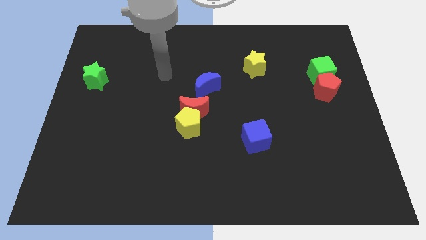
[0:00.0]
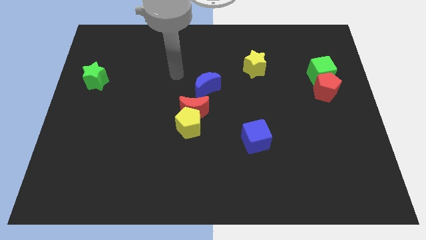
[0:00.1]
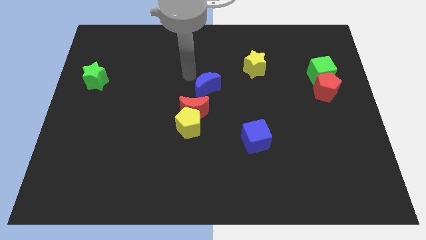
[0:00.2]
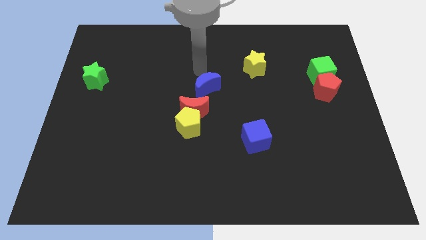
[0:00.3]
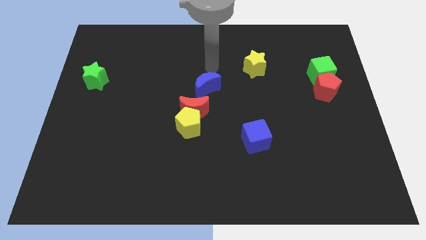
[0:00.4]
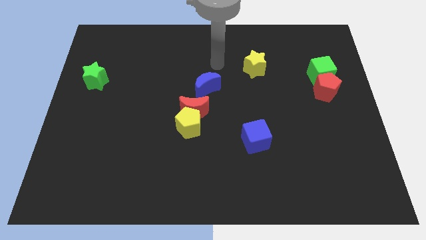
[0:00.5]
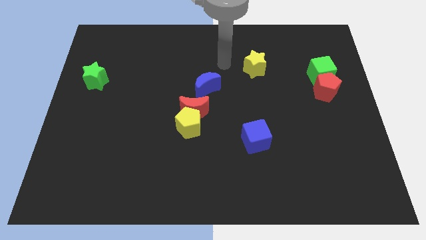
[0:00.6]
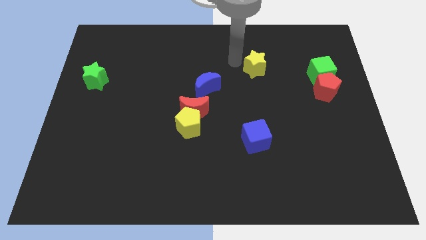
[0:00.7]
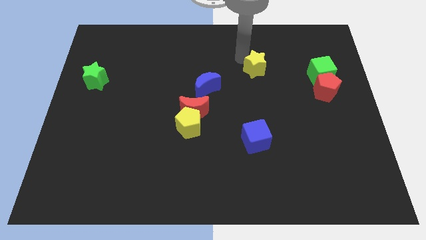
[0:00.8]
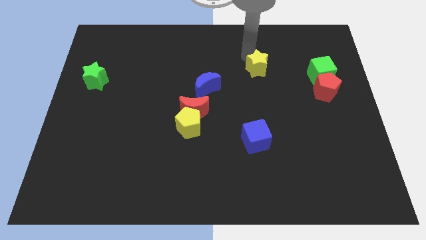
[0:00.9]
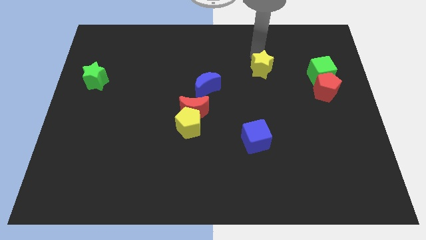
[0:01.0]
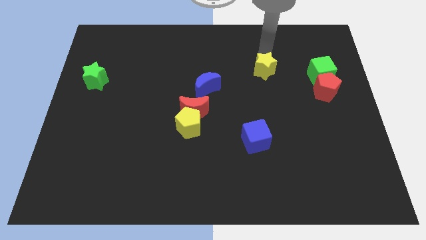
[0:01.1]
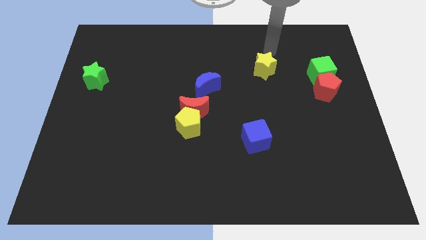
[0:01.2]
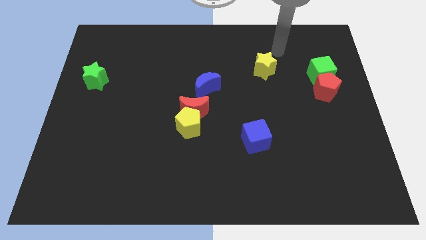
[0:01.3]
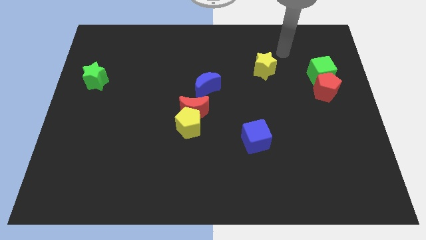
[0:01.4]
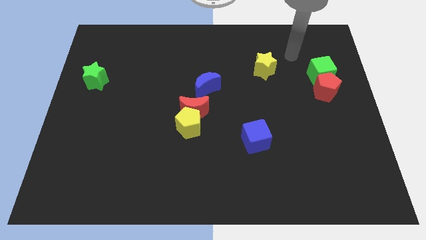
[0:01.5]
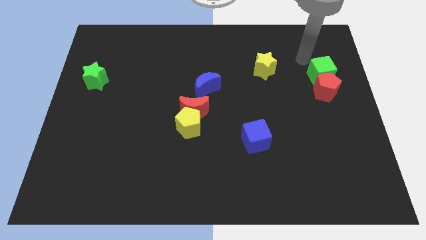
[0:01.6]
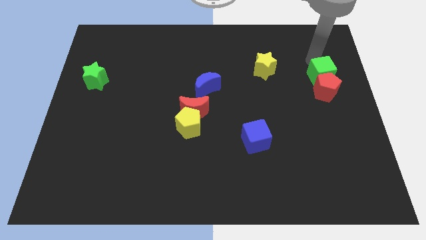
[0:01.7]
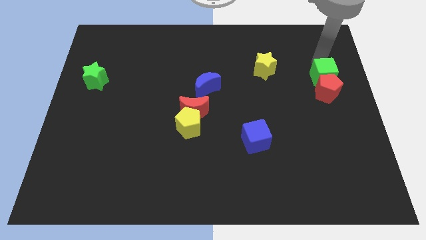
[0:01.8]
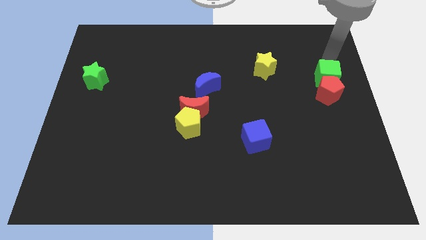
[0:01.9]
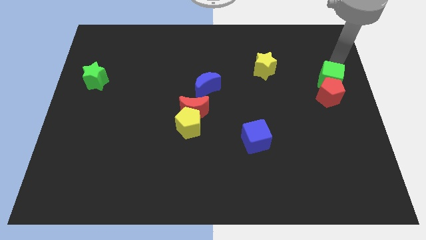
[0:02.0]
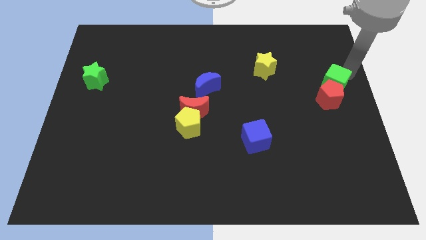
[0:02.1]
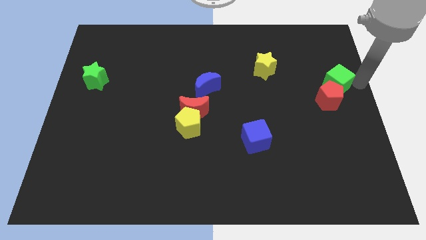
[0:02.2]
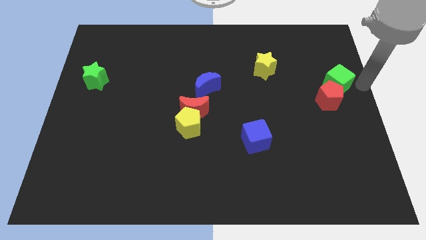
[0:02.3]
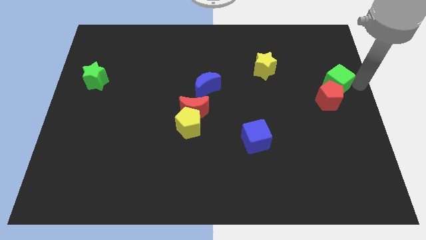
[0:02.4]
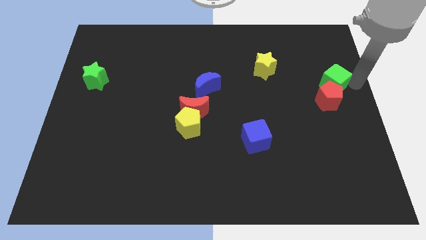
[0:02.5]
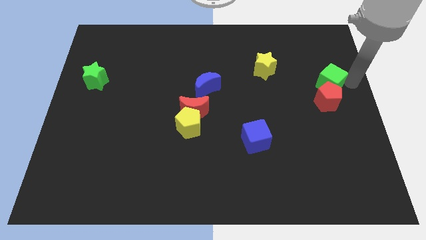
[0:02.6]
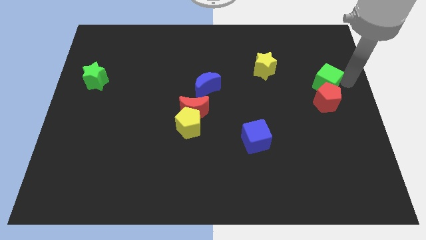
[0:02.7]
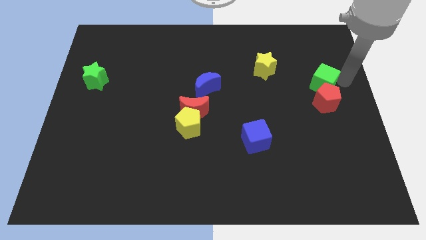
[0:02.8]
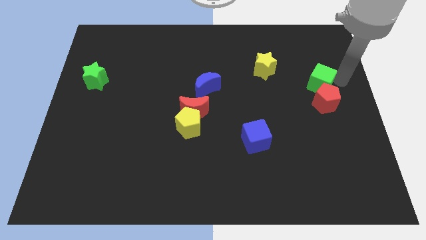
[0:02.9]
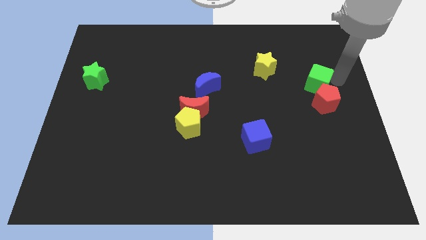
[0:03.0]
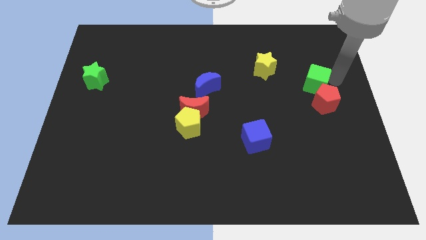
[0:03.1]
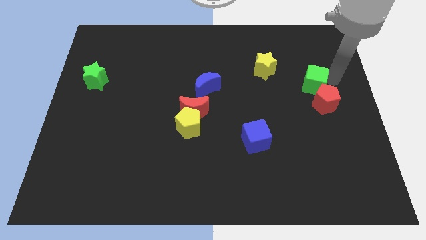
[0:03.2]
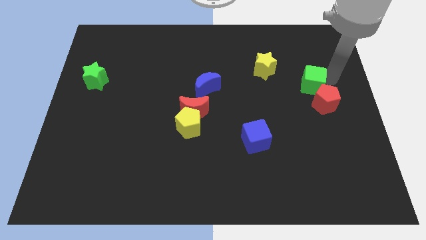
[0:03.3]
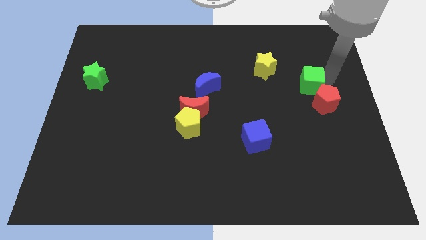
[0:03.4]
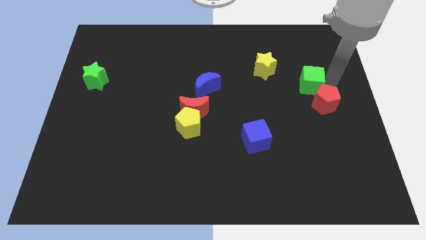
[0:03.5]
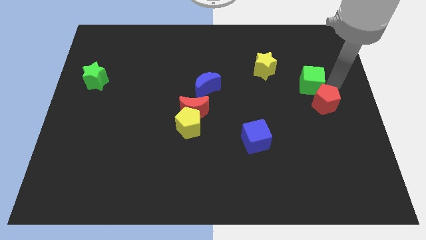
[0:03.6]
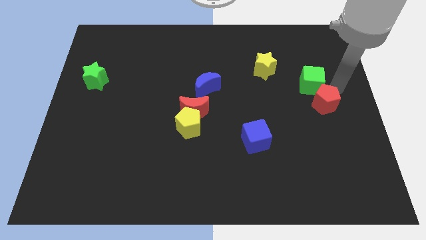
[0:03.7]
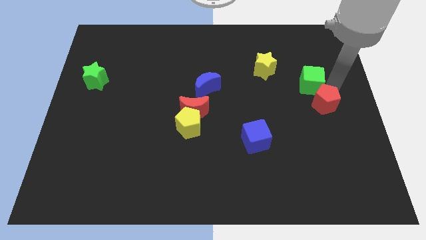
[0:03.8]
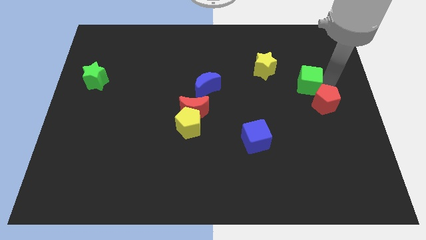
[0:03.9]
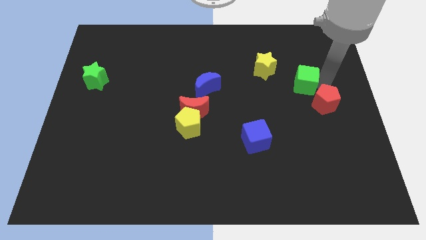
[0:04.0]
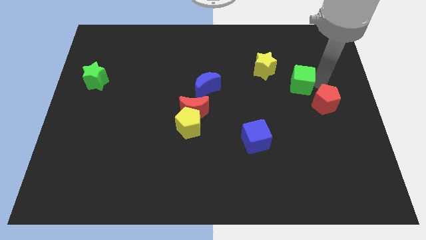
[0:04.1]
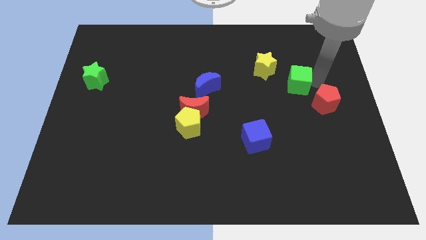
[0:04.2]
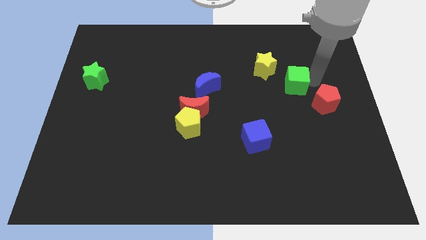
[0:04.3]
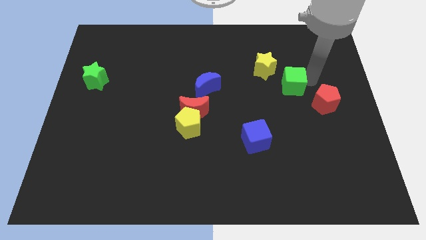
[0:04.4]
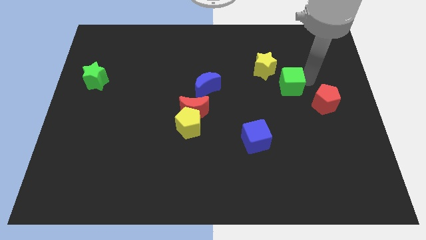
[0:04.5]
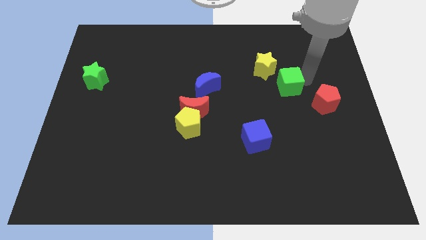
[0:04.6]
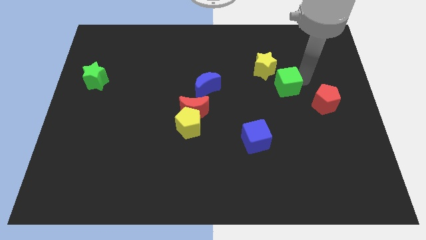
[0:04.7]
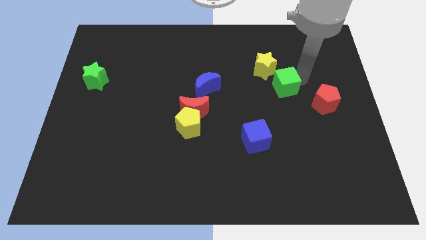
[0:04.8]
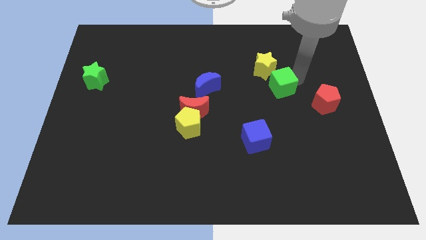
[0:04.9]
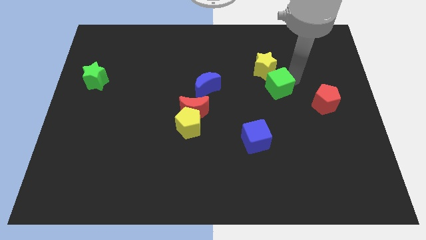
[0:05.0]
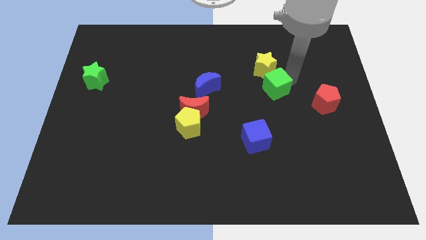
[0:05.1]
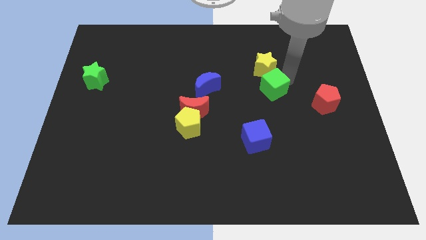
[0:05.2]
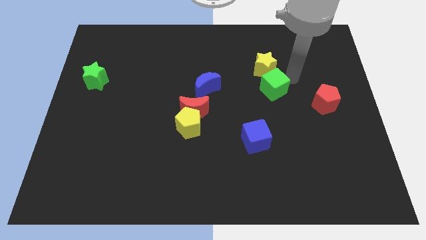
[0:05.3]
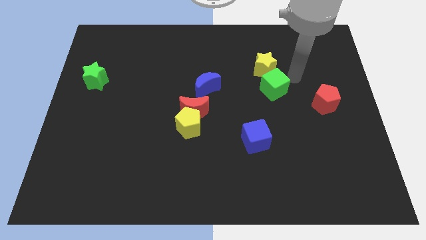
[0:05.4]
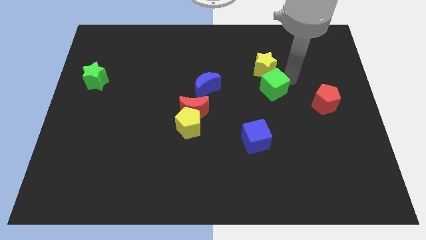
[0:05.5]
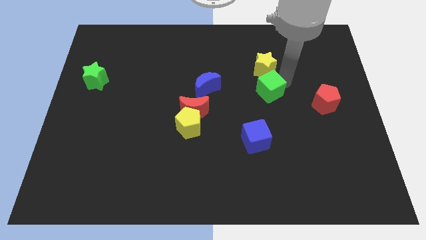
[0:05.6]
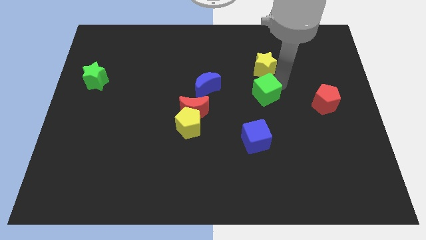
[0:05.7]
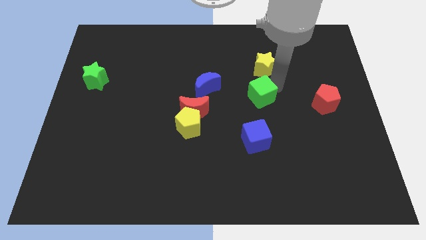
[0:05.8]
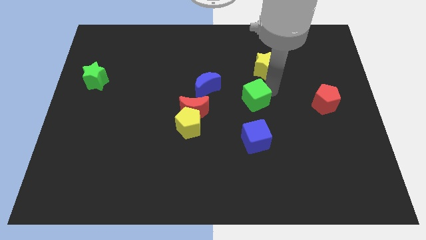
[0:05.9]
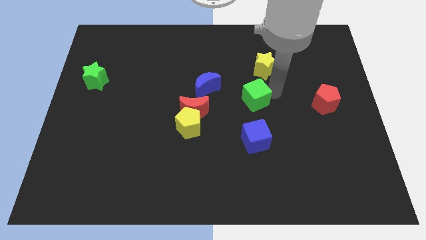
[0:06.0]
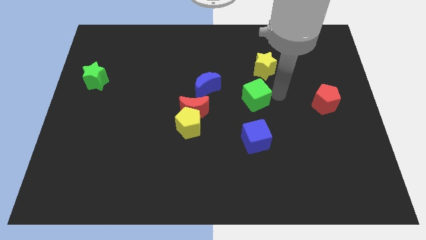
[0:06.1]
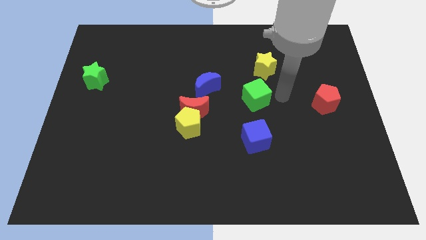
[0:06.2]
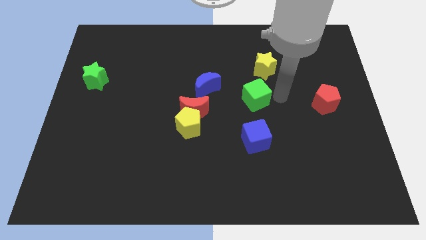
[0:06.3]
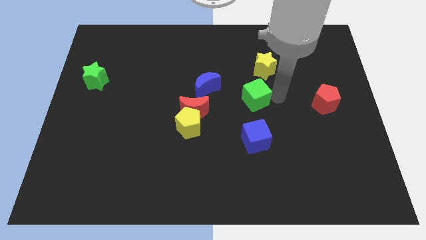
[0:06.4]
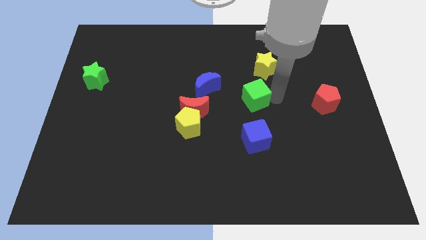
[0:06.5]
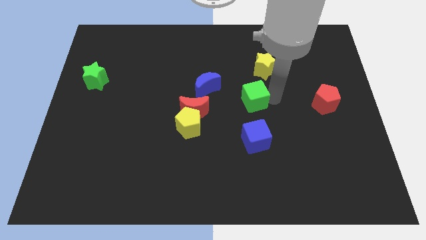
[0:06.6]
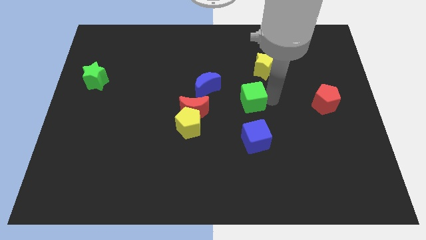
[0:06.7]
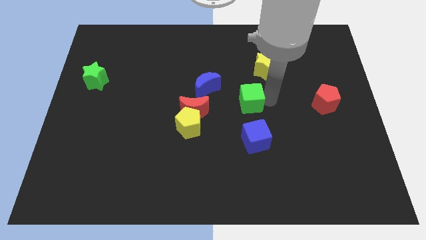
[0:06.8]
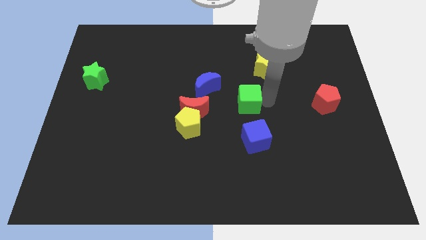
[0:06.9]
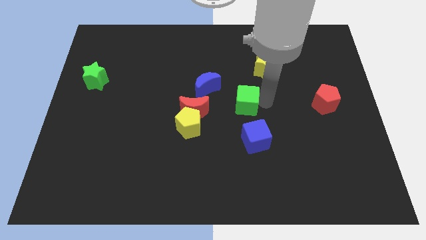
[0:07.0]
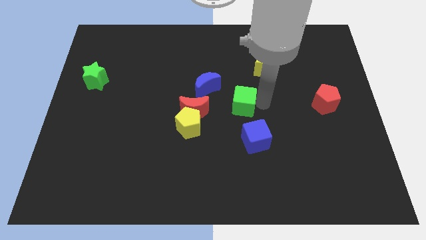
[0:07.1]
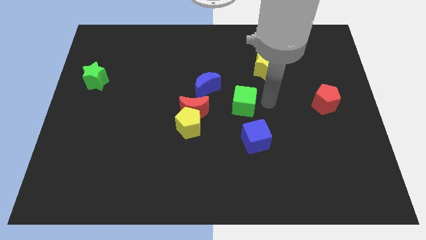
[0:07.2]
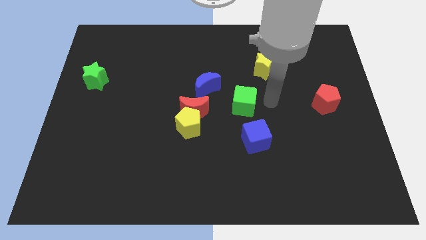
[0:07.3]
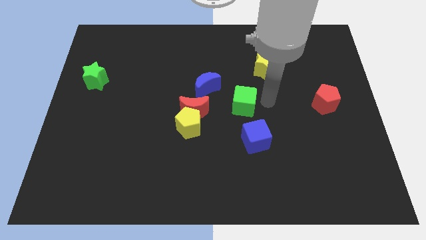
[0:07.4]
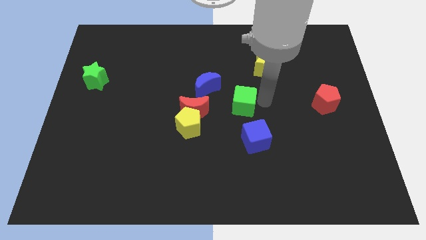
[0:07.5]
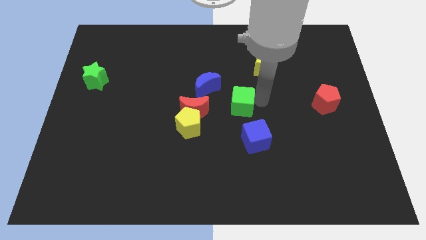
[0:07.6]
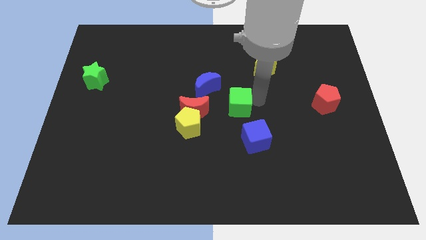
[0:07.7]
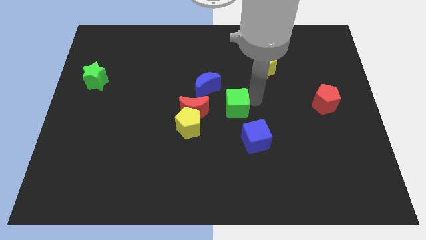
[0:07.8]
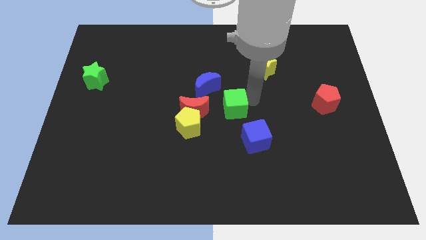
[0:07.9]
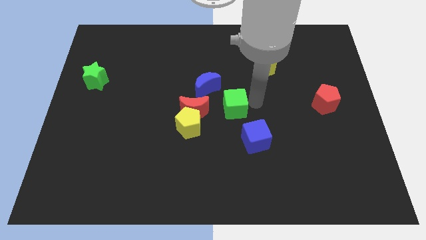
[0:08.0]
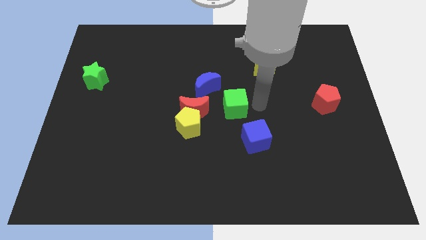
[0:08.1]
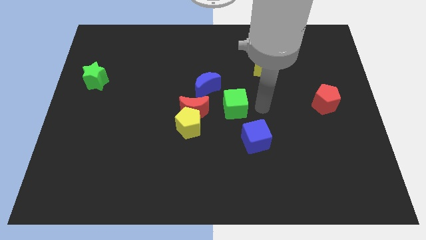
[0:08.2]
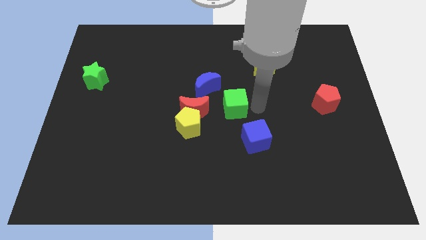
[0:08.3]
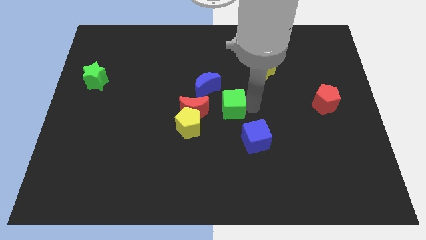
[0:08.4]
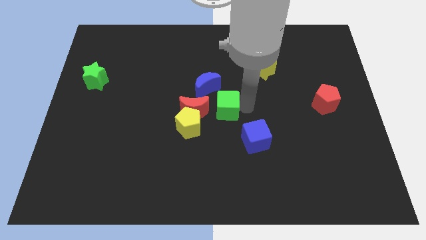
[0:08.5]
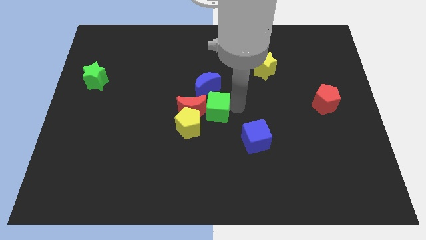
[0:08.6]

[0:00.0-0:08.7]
push the green cube towards the red moon
